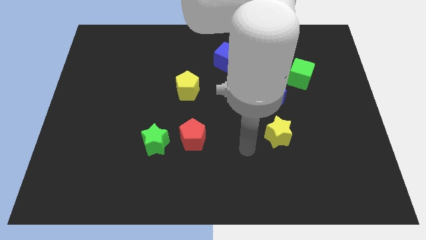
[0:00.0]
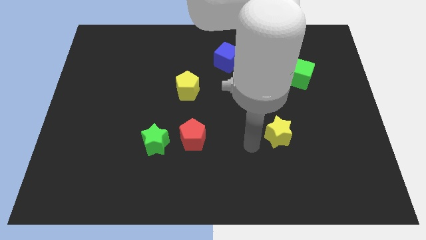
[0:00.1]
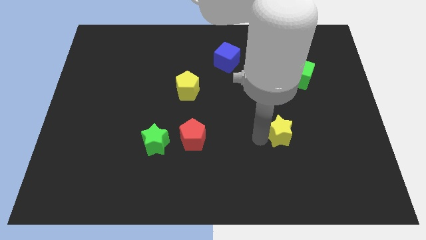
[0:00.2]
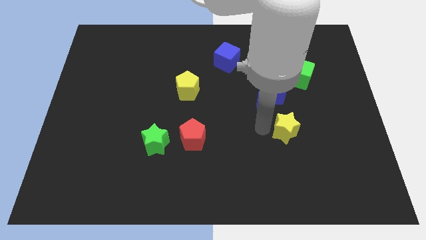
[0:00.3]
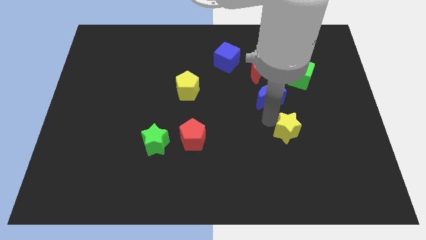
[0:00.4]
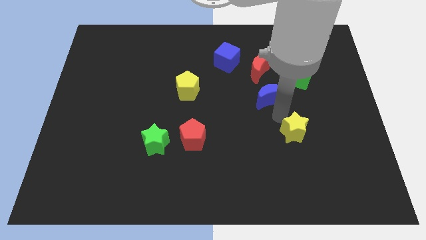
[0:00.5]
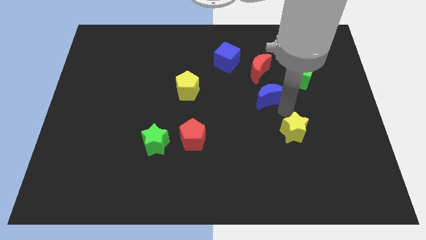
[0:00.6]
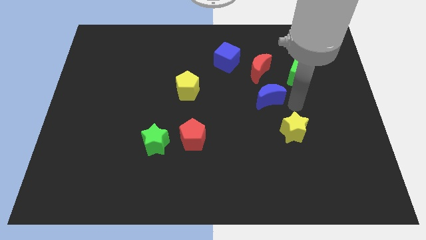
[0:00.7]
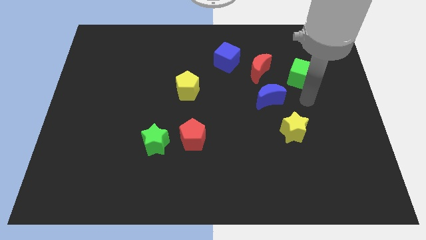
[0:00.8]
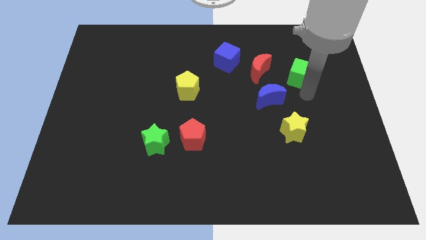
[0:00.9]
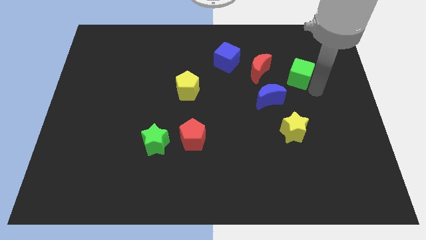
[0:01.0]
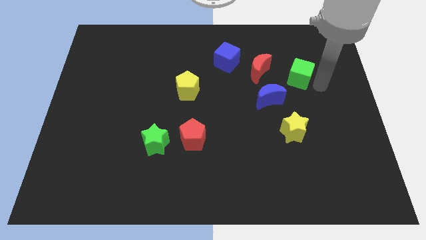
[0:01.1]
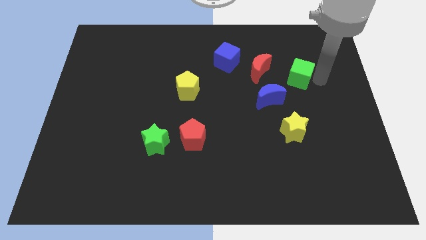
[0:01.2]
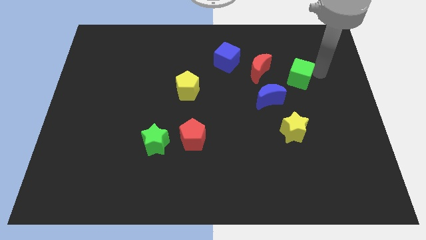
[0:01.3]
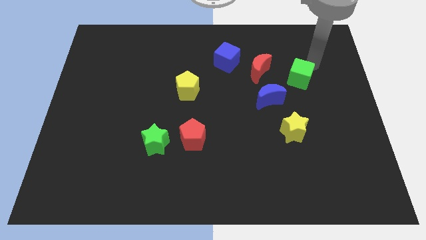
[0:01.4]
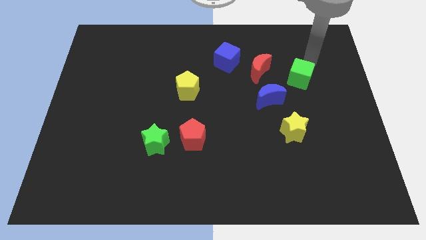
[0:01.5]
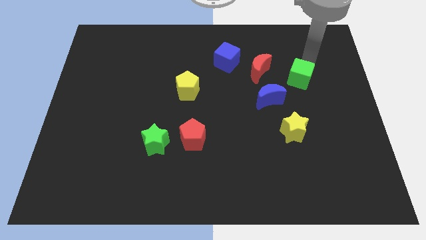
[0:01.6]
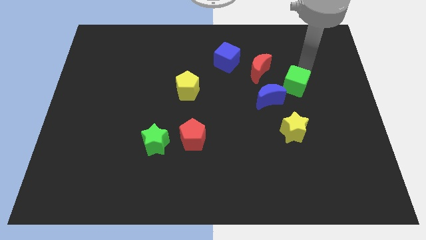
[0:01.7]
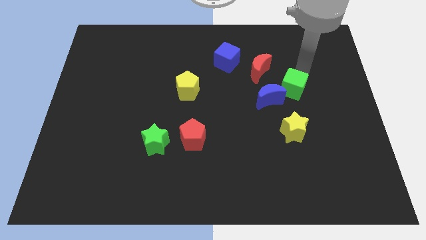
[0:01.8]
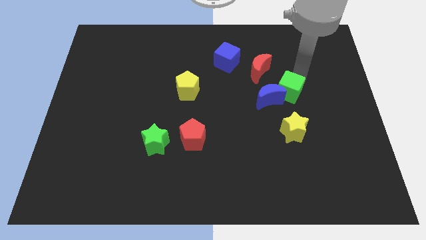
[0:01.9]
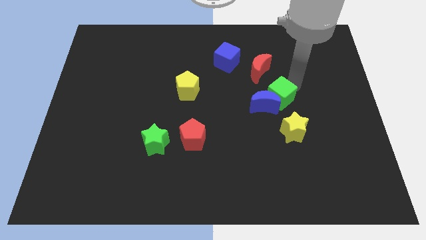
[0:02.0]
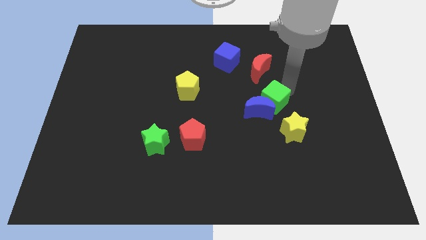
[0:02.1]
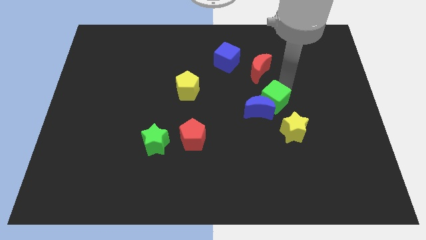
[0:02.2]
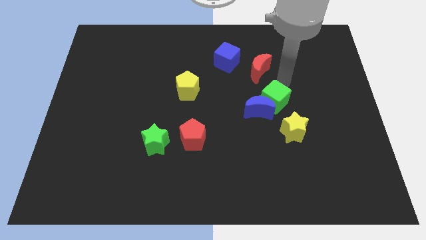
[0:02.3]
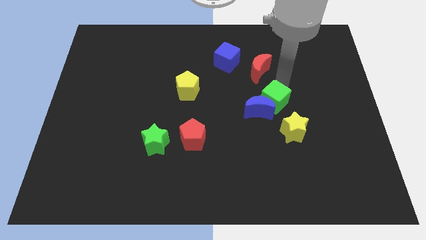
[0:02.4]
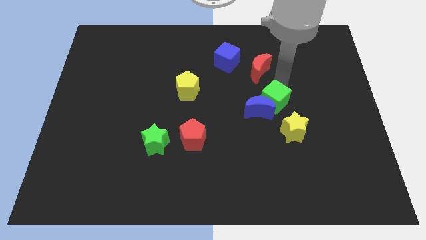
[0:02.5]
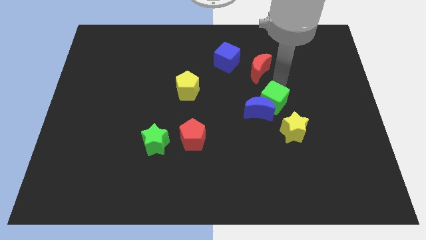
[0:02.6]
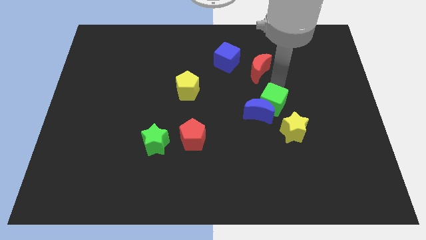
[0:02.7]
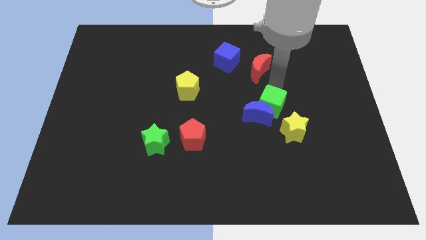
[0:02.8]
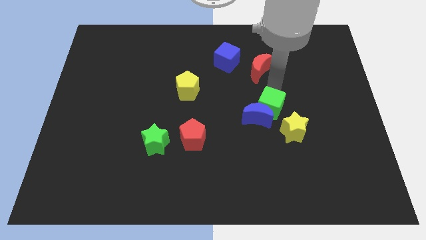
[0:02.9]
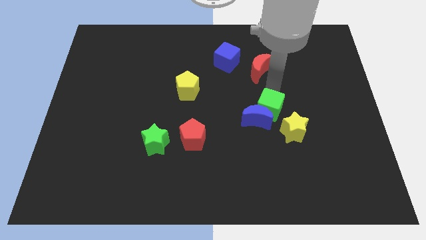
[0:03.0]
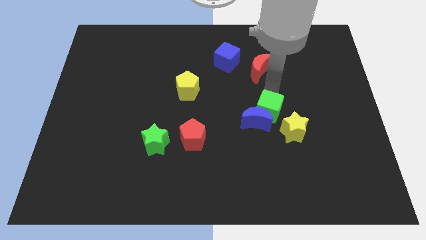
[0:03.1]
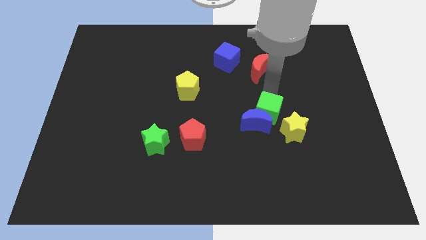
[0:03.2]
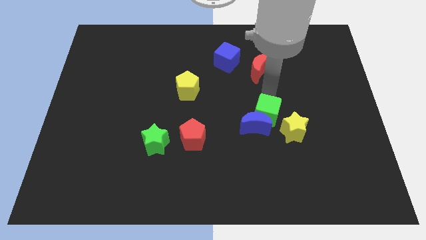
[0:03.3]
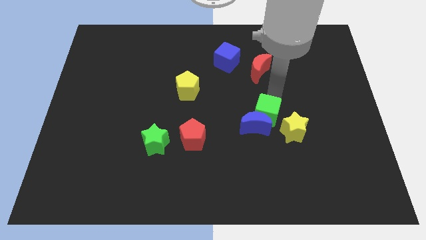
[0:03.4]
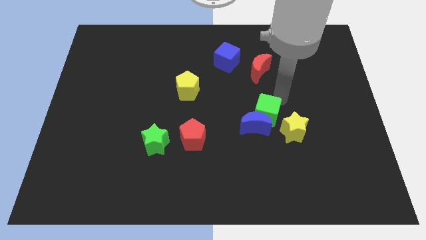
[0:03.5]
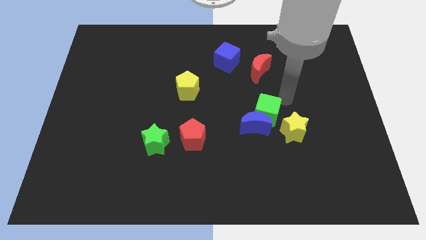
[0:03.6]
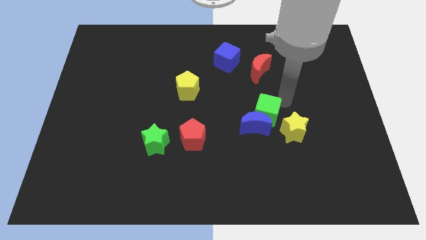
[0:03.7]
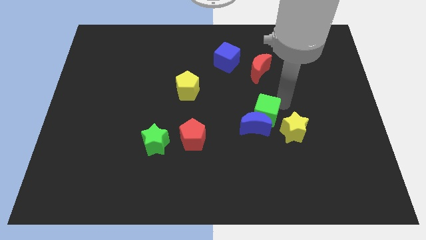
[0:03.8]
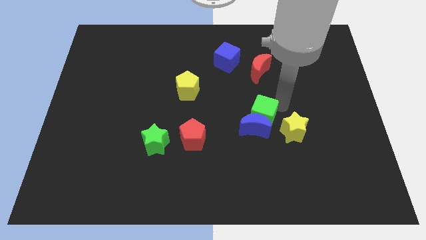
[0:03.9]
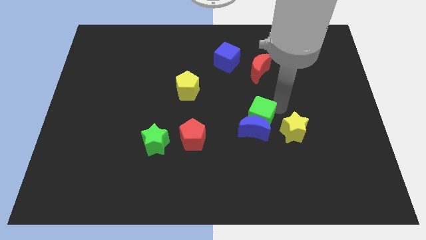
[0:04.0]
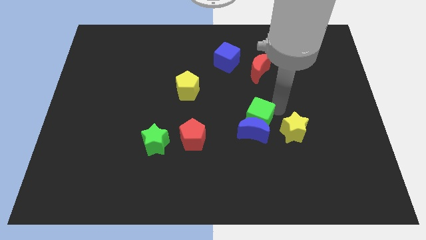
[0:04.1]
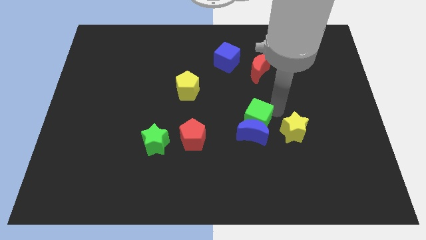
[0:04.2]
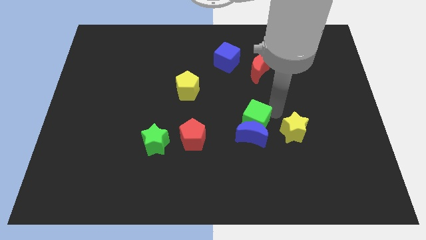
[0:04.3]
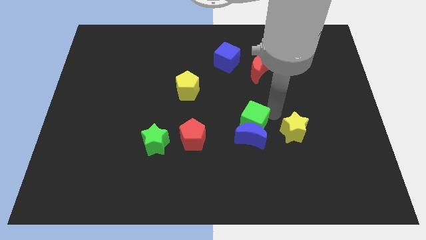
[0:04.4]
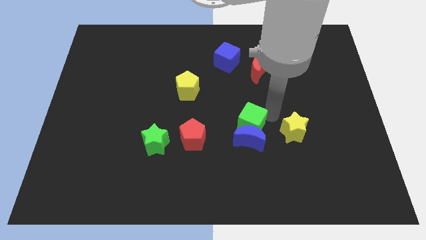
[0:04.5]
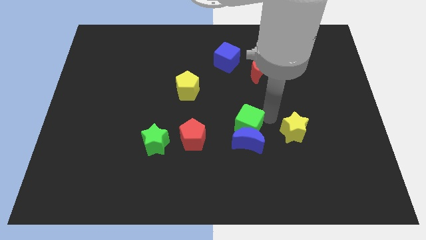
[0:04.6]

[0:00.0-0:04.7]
move the green cube down and left diagonally

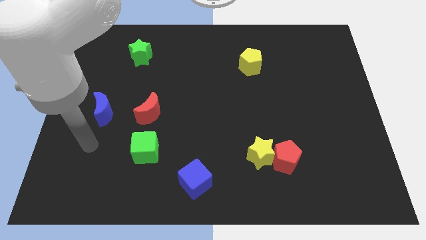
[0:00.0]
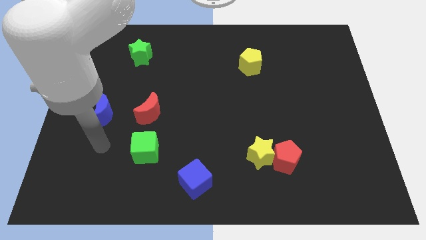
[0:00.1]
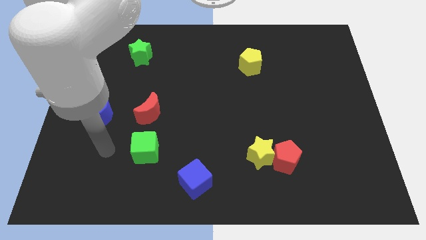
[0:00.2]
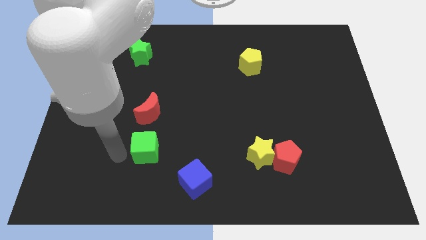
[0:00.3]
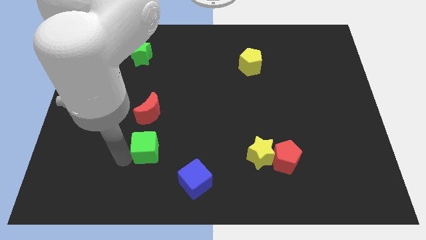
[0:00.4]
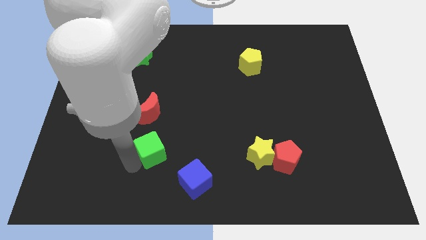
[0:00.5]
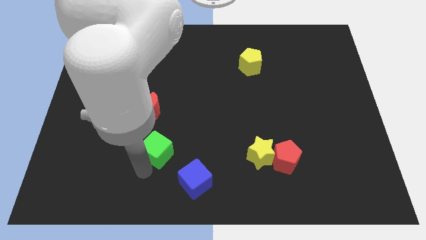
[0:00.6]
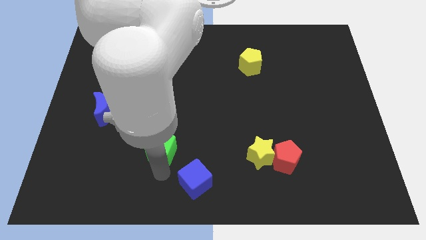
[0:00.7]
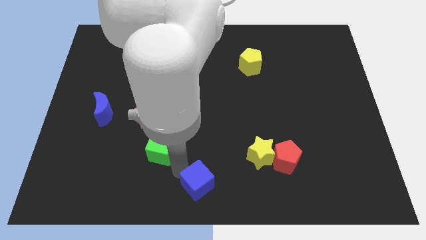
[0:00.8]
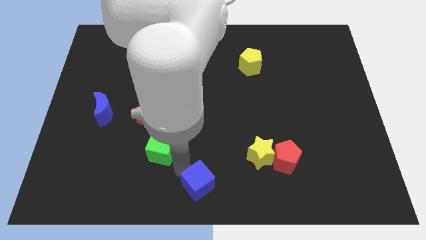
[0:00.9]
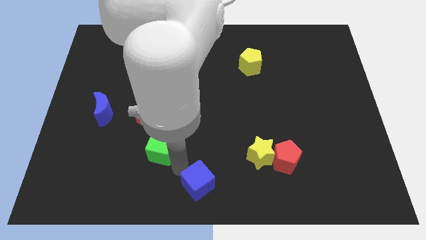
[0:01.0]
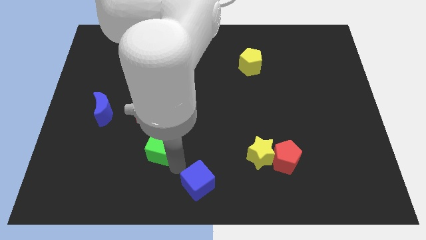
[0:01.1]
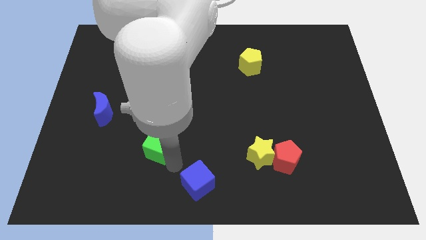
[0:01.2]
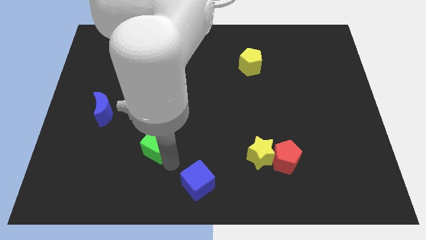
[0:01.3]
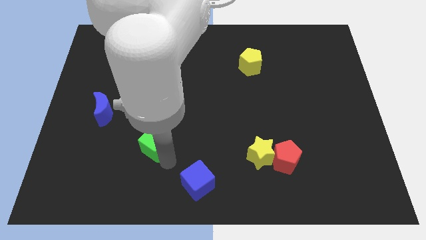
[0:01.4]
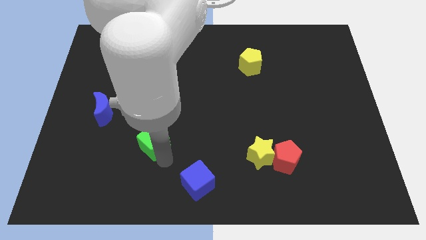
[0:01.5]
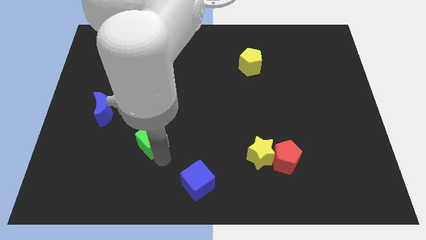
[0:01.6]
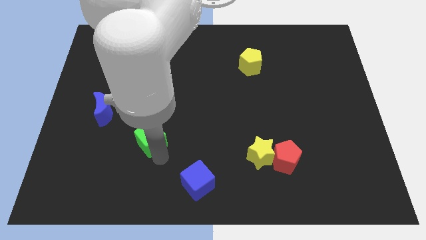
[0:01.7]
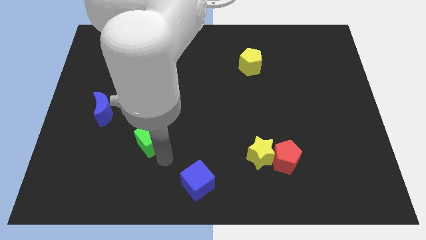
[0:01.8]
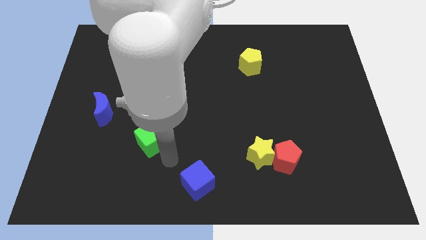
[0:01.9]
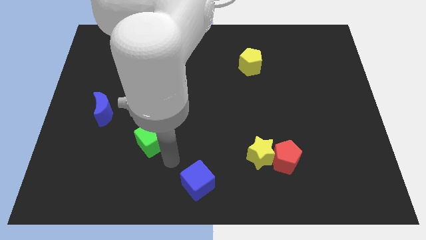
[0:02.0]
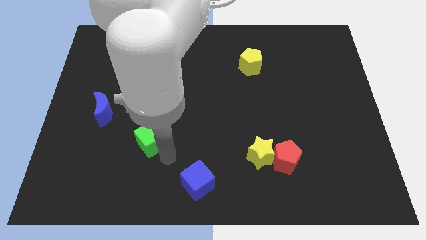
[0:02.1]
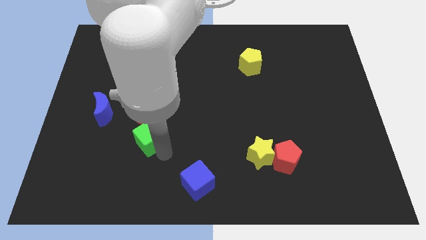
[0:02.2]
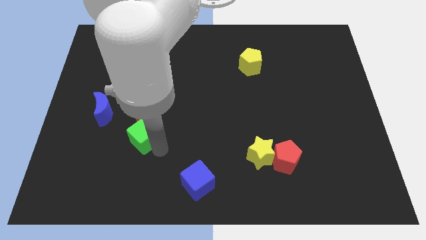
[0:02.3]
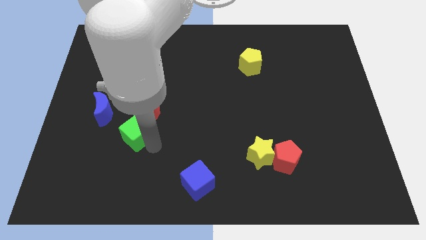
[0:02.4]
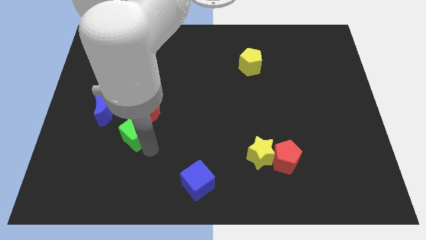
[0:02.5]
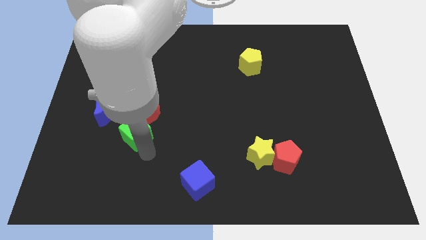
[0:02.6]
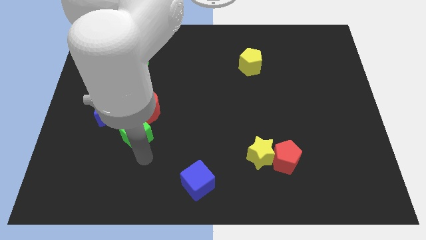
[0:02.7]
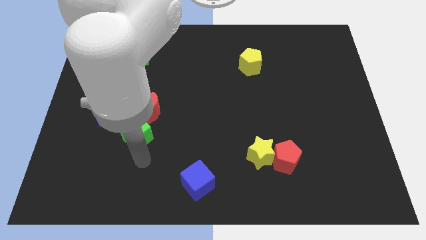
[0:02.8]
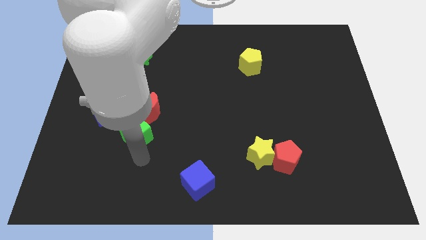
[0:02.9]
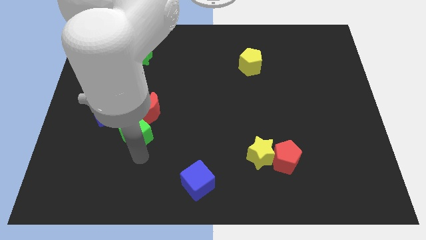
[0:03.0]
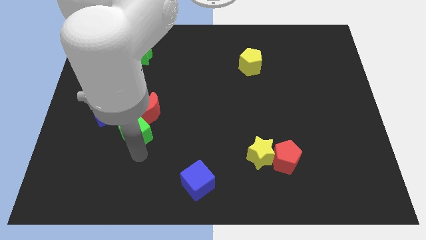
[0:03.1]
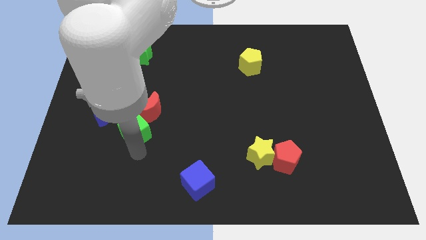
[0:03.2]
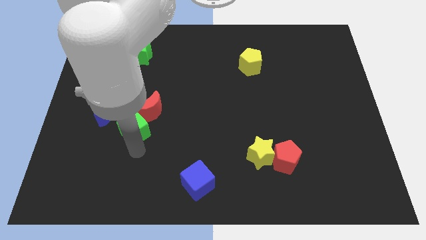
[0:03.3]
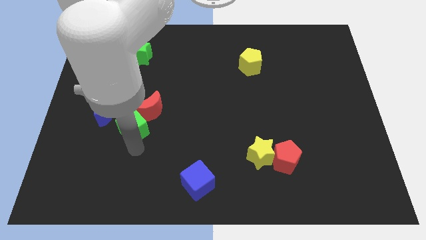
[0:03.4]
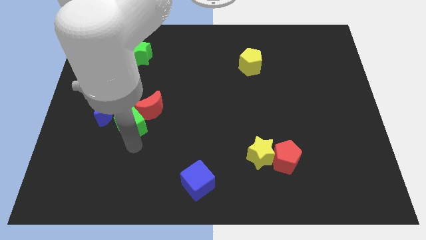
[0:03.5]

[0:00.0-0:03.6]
slightly slide the green cube diagonally up and to the left
